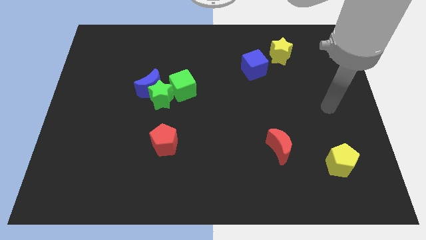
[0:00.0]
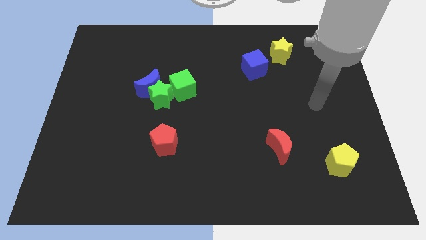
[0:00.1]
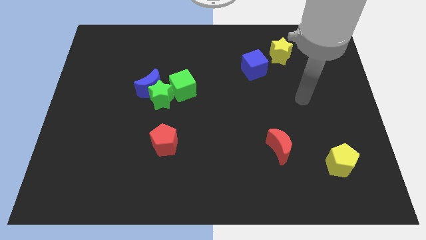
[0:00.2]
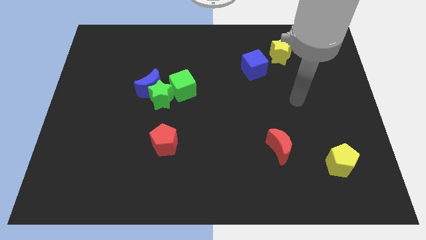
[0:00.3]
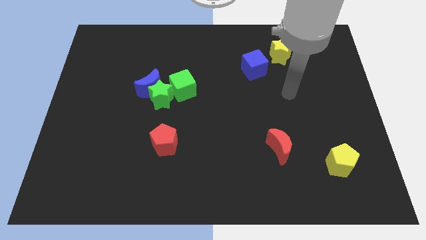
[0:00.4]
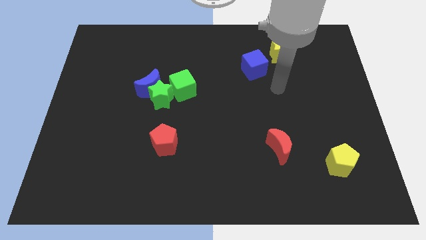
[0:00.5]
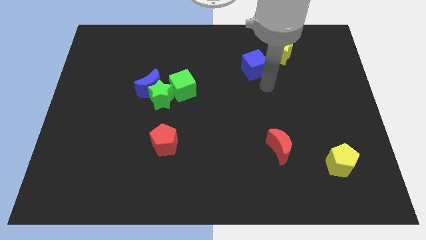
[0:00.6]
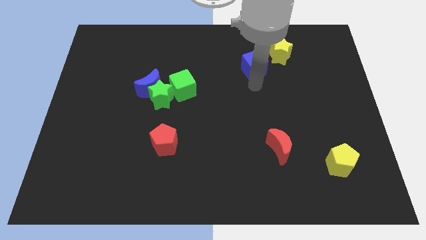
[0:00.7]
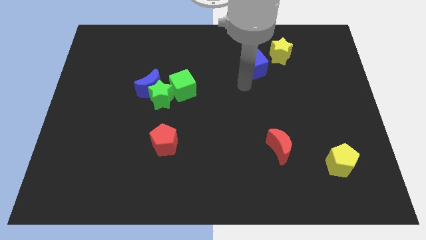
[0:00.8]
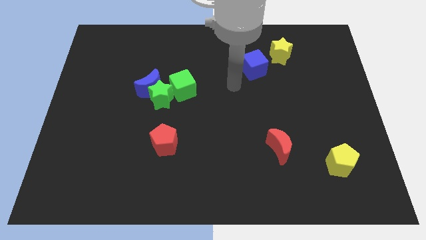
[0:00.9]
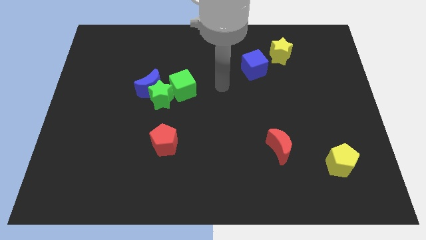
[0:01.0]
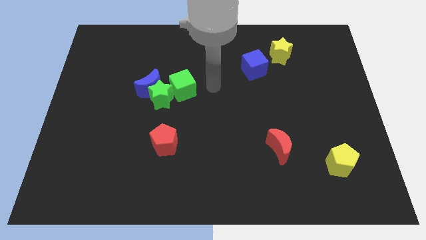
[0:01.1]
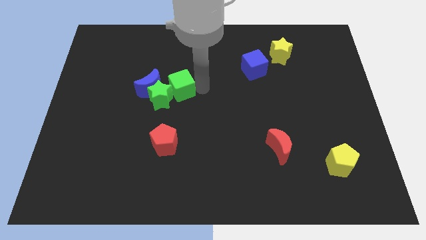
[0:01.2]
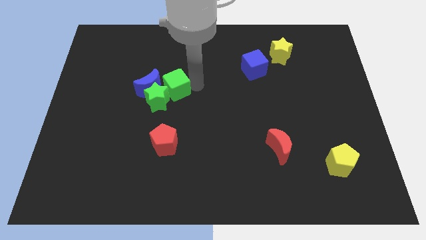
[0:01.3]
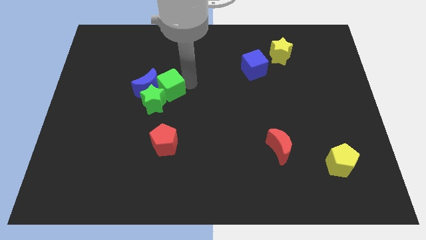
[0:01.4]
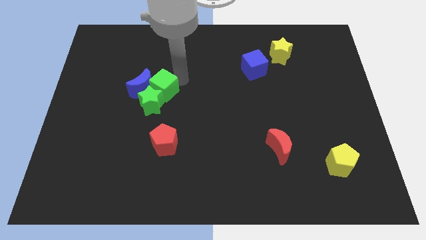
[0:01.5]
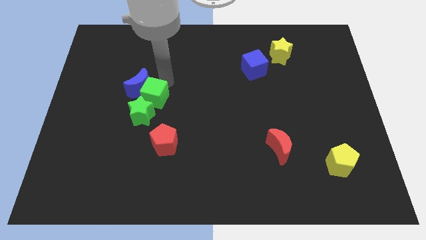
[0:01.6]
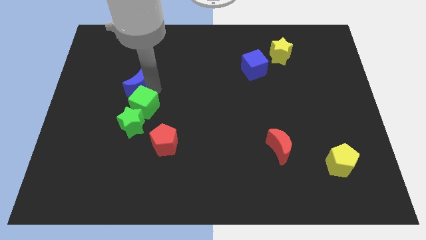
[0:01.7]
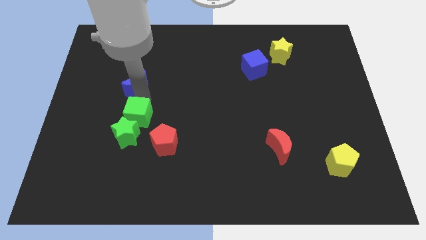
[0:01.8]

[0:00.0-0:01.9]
pull the green star apart from the blue moon and green cube

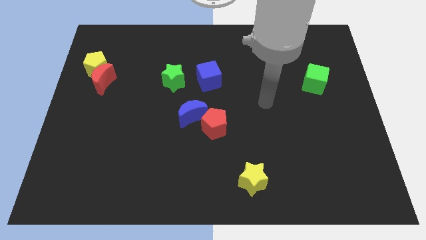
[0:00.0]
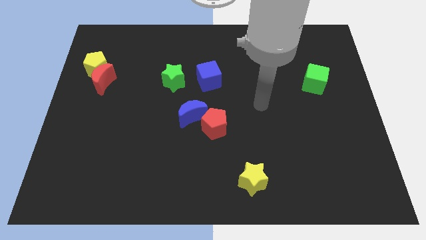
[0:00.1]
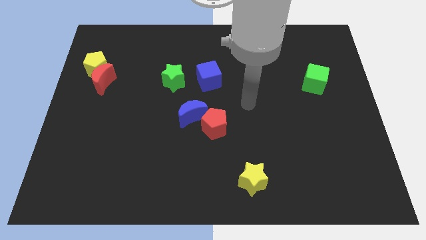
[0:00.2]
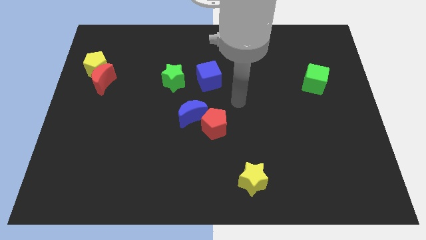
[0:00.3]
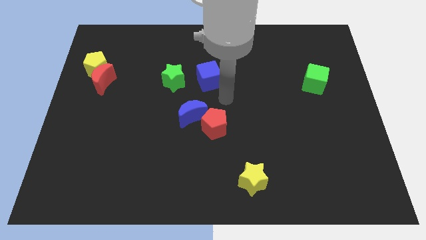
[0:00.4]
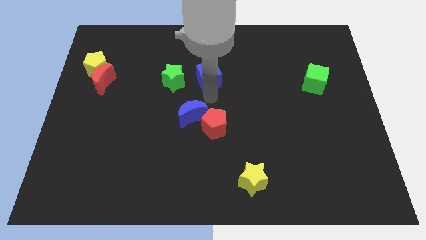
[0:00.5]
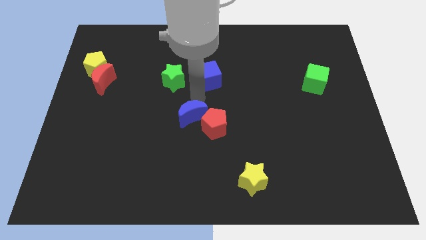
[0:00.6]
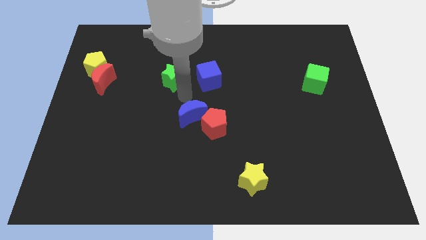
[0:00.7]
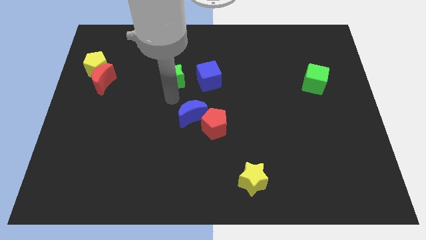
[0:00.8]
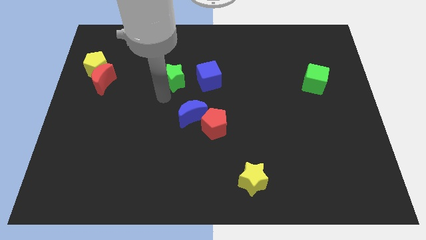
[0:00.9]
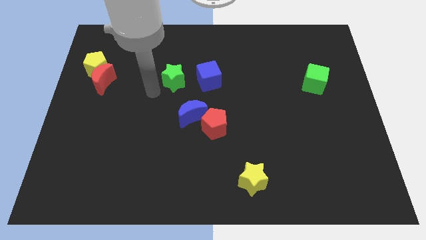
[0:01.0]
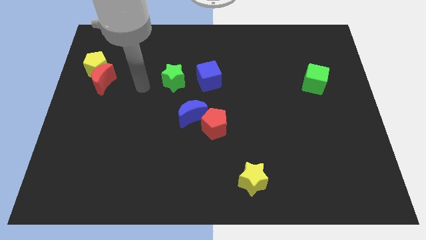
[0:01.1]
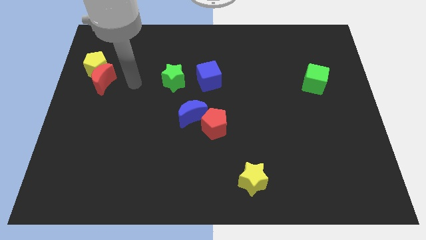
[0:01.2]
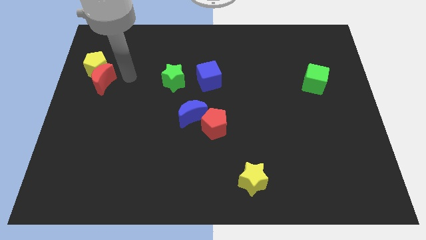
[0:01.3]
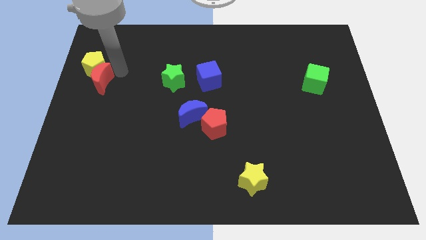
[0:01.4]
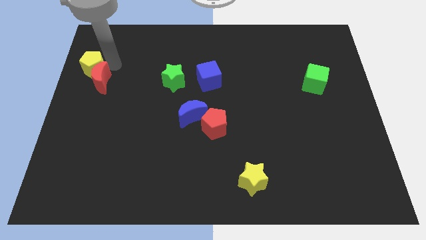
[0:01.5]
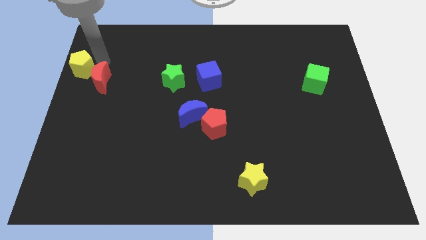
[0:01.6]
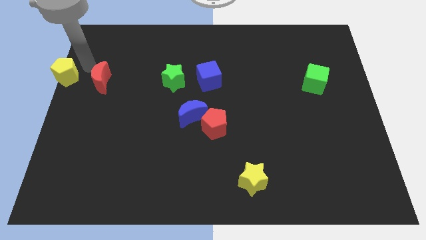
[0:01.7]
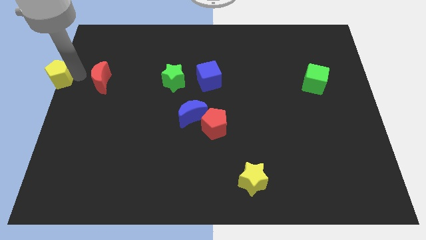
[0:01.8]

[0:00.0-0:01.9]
pull the red moon apart from the yellow pentagon

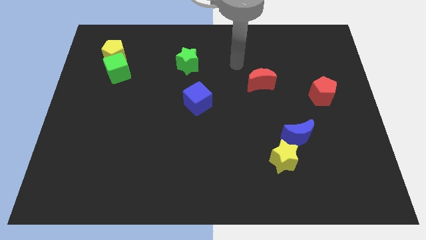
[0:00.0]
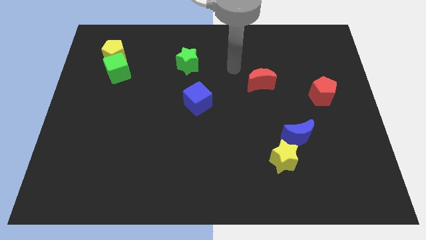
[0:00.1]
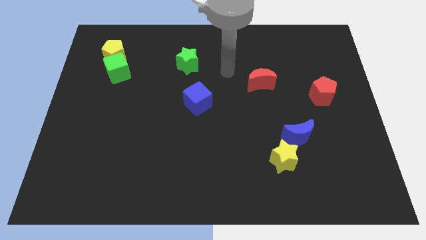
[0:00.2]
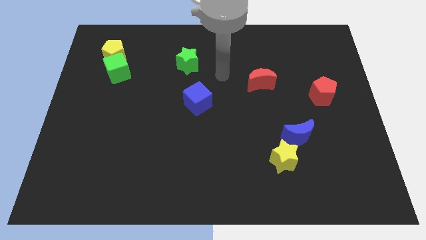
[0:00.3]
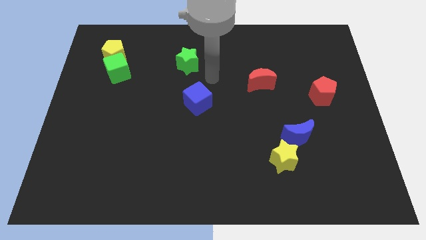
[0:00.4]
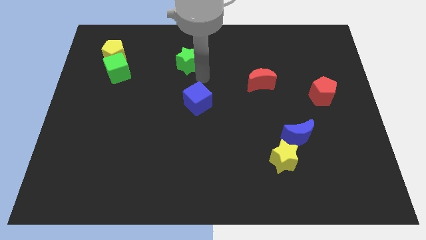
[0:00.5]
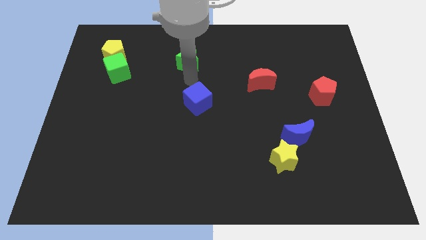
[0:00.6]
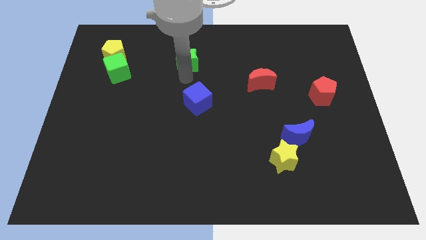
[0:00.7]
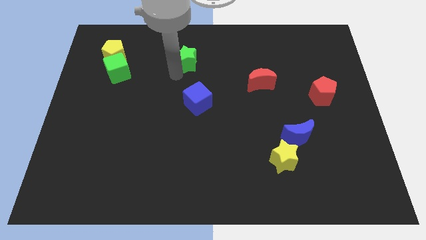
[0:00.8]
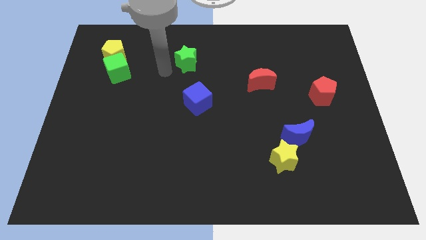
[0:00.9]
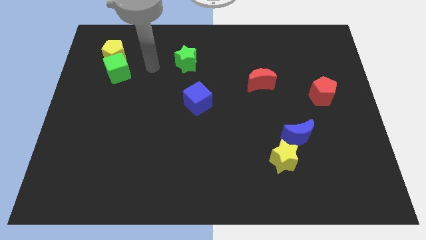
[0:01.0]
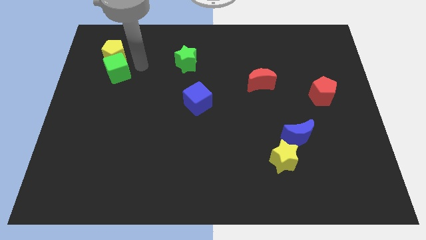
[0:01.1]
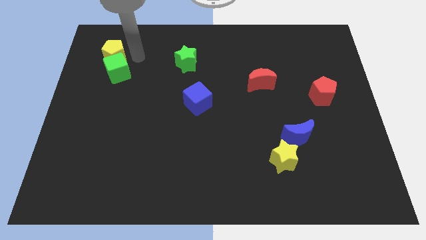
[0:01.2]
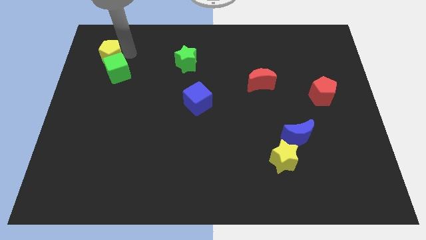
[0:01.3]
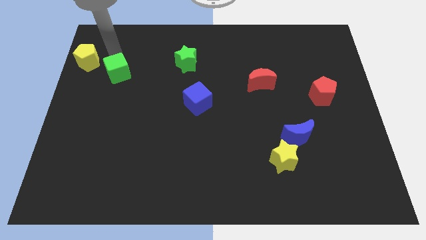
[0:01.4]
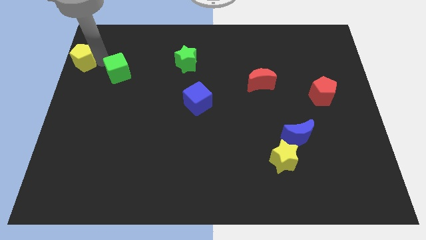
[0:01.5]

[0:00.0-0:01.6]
pull the green cube apart from the yellow pentagon

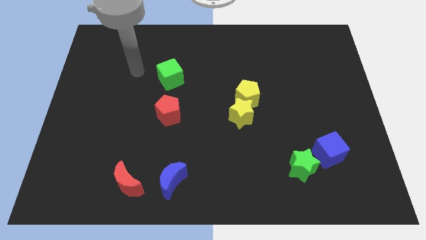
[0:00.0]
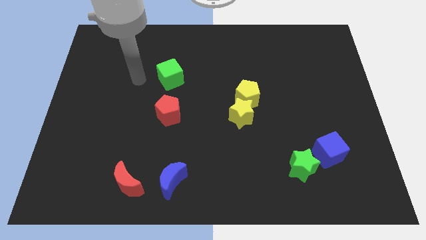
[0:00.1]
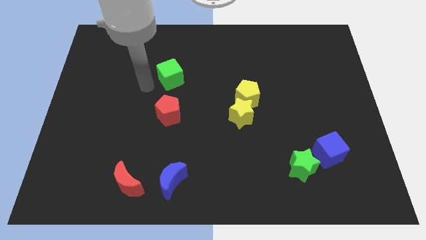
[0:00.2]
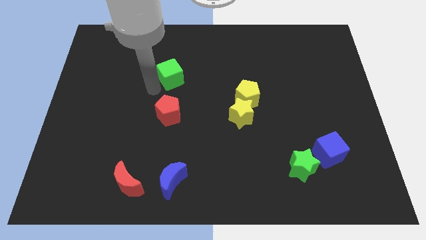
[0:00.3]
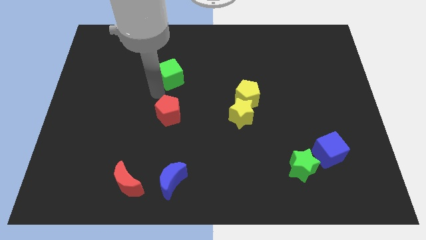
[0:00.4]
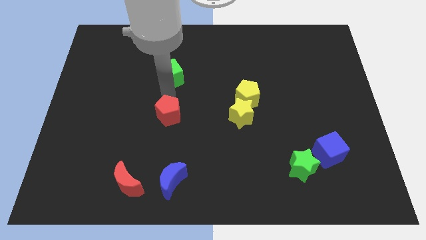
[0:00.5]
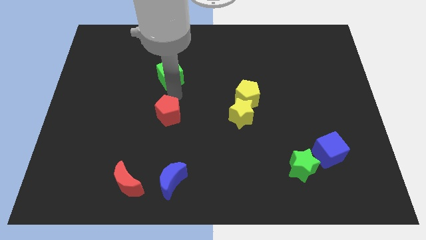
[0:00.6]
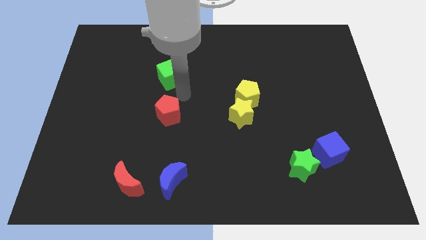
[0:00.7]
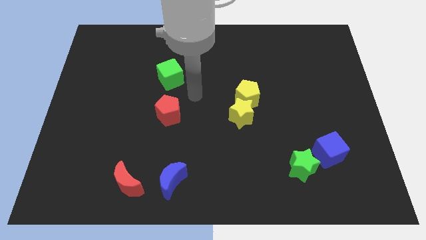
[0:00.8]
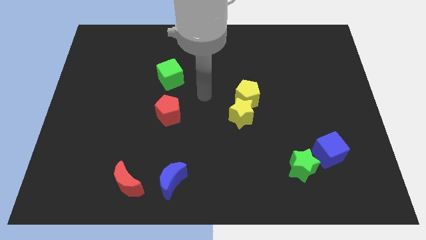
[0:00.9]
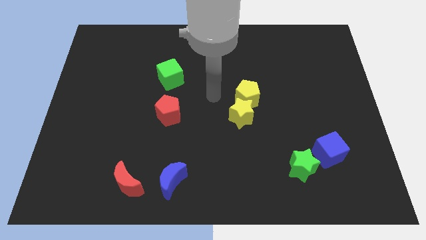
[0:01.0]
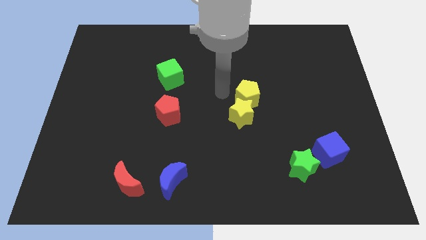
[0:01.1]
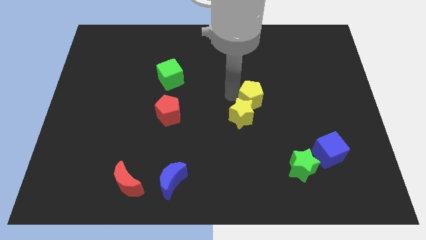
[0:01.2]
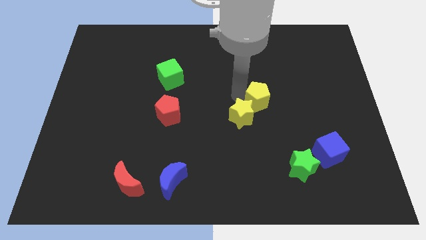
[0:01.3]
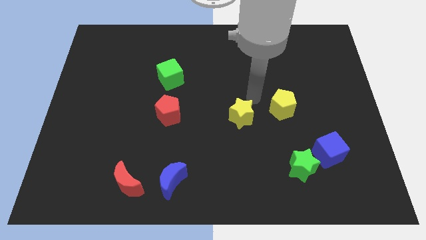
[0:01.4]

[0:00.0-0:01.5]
separate the yellow star from the yellow pentagon

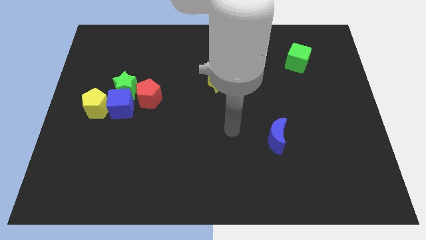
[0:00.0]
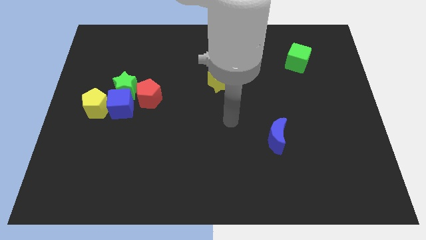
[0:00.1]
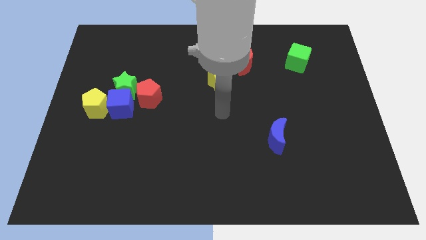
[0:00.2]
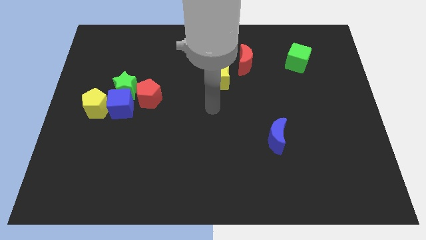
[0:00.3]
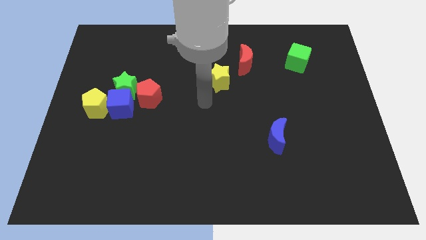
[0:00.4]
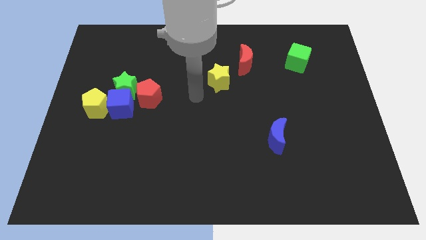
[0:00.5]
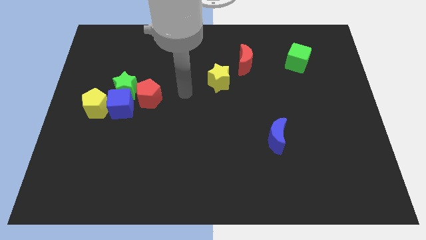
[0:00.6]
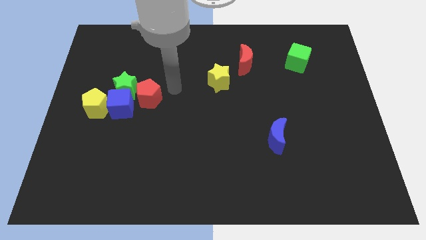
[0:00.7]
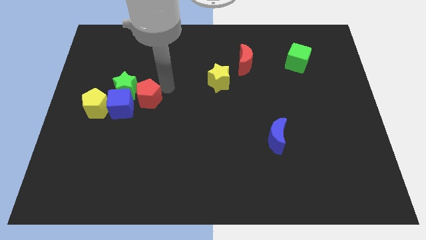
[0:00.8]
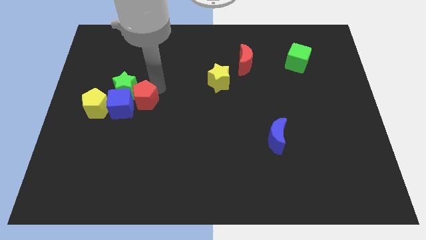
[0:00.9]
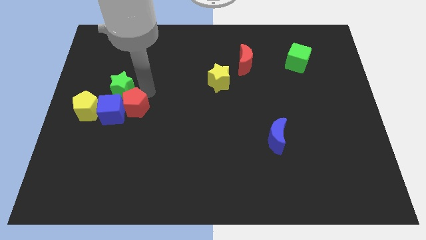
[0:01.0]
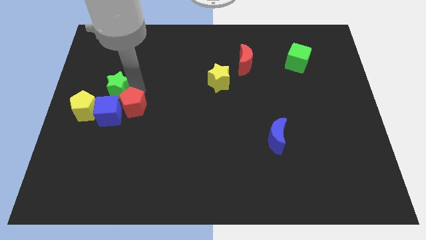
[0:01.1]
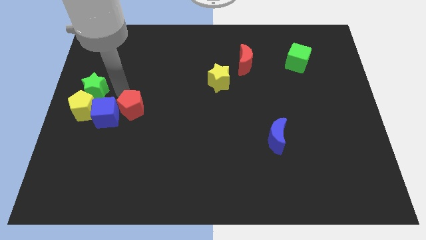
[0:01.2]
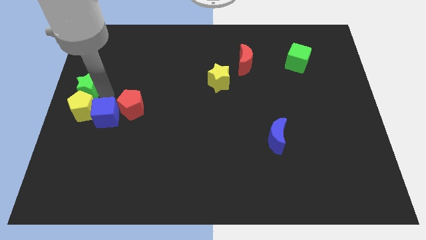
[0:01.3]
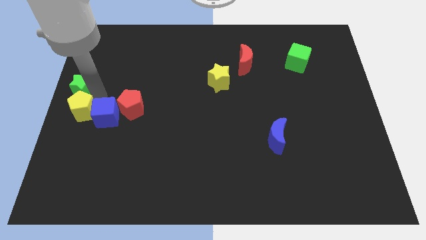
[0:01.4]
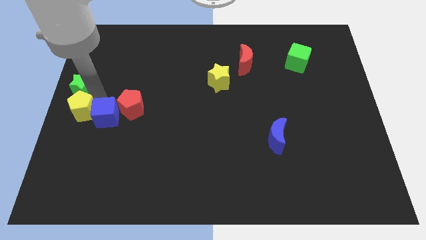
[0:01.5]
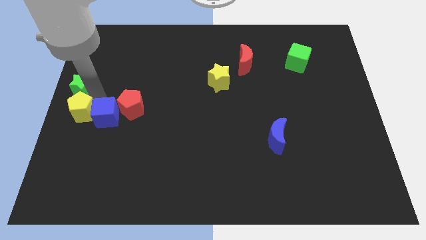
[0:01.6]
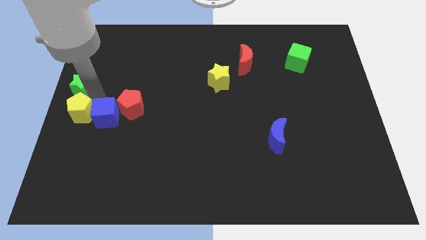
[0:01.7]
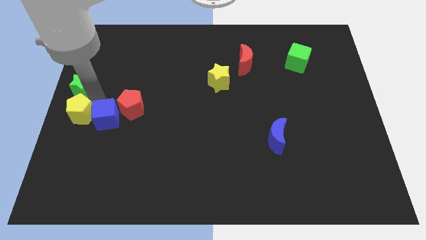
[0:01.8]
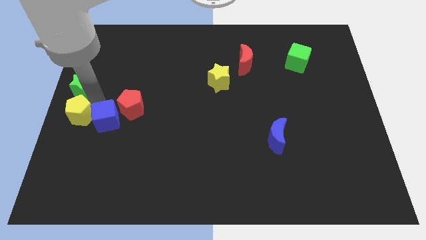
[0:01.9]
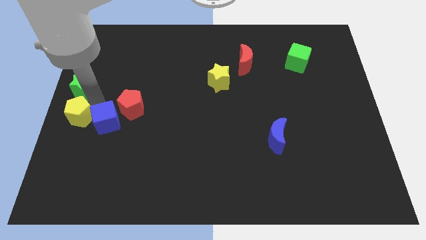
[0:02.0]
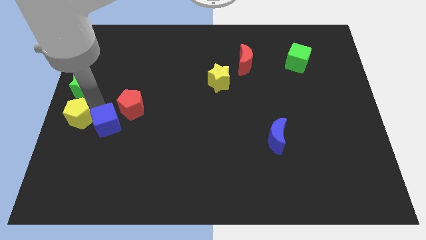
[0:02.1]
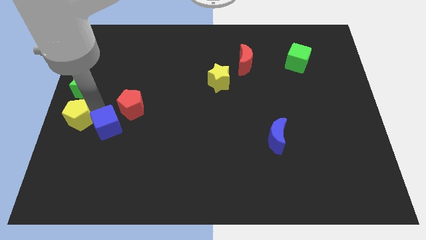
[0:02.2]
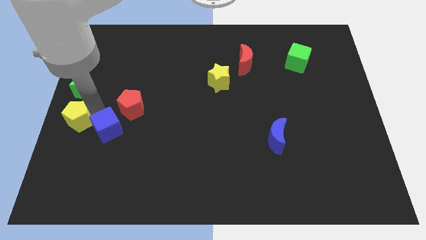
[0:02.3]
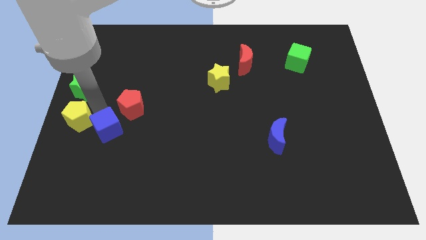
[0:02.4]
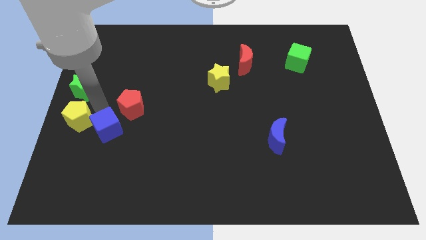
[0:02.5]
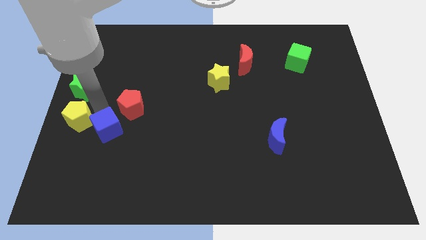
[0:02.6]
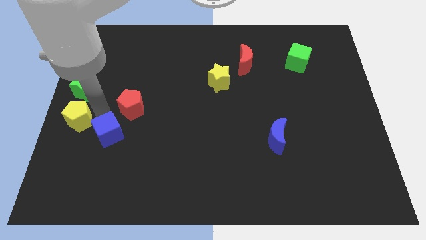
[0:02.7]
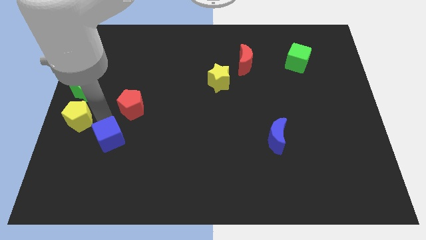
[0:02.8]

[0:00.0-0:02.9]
move the blue cube away from the group of blocks
